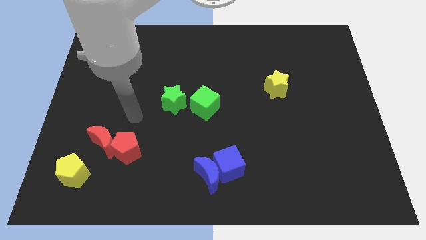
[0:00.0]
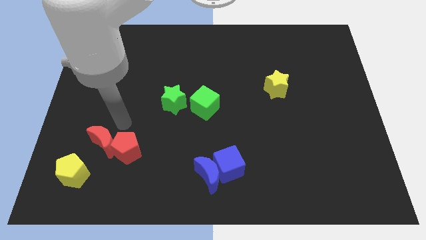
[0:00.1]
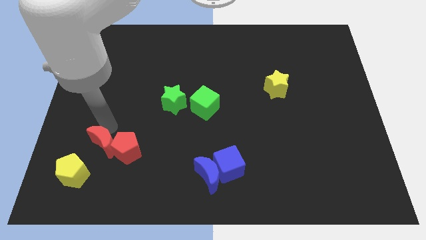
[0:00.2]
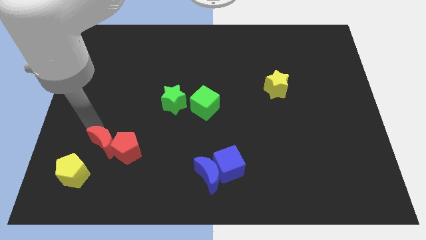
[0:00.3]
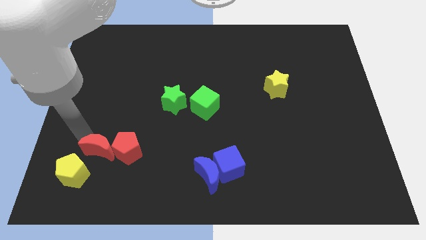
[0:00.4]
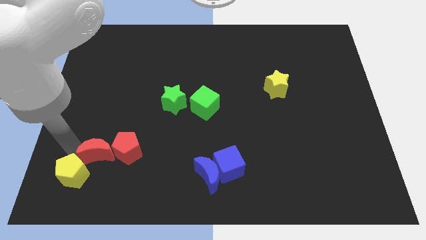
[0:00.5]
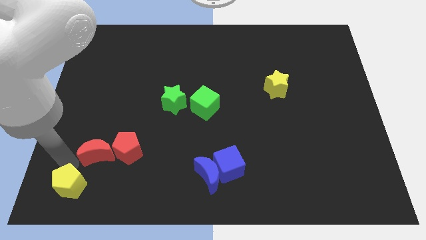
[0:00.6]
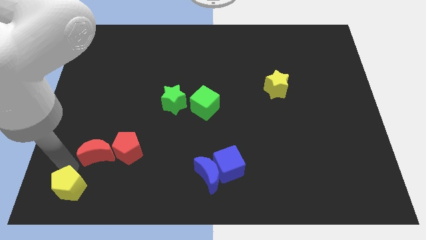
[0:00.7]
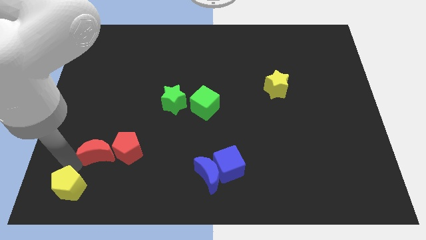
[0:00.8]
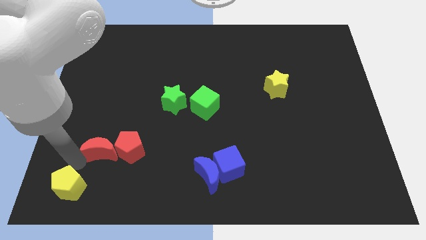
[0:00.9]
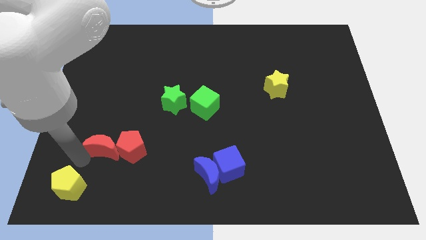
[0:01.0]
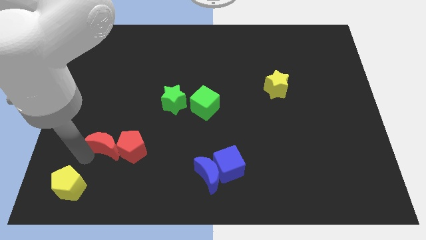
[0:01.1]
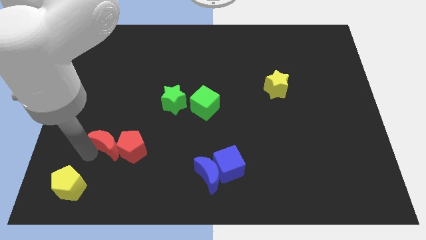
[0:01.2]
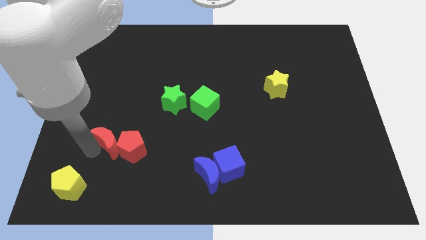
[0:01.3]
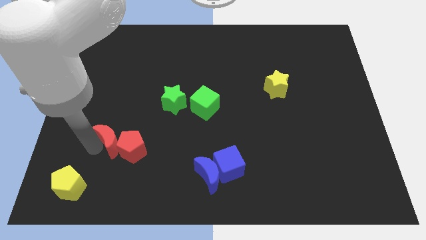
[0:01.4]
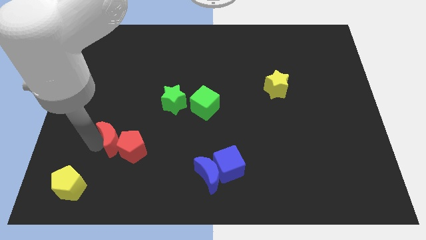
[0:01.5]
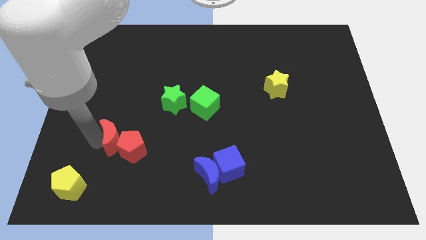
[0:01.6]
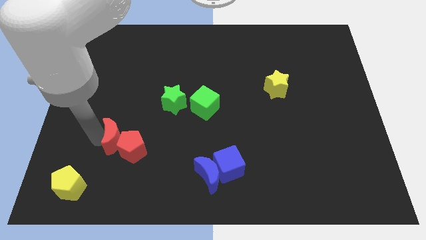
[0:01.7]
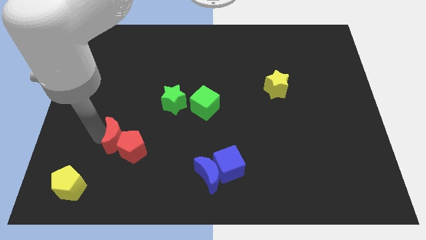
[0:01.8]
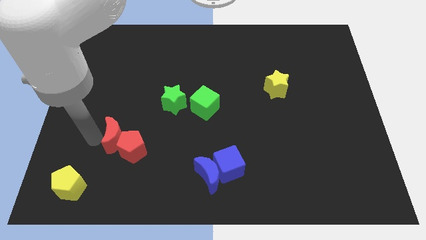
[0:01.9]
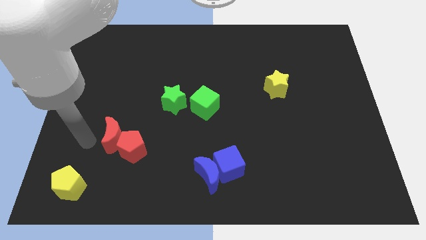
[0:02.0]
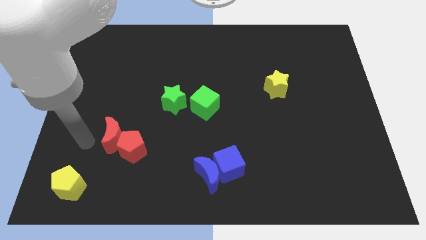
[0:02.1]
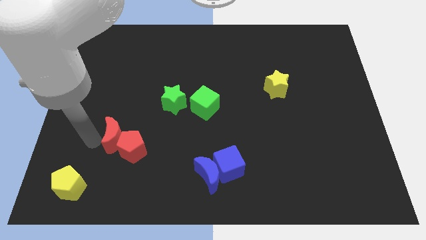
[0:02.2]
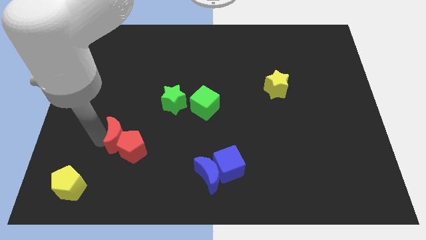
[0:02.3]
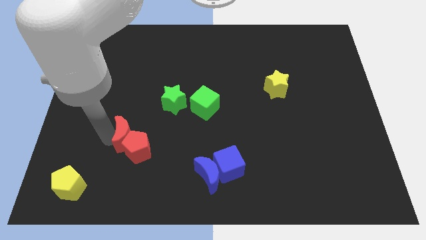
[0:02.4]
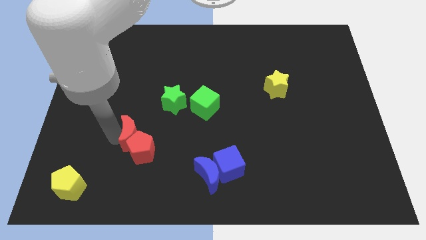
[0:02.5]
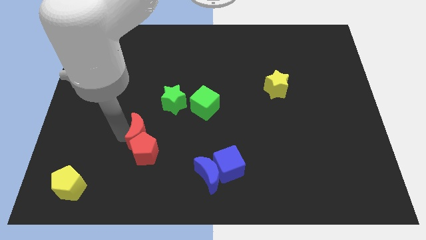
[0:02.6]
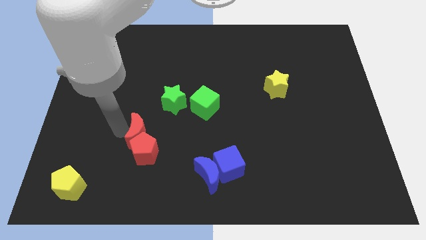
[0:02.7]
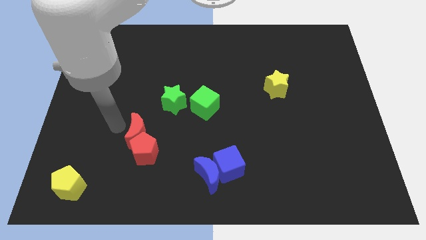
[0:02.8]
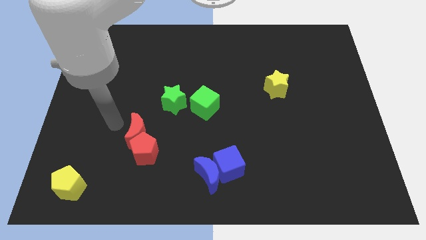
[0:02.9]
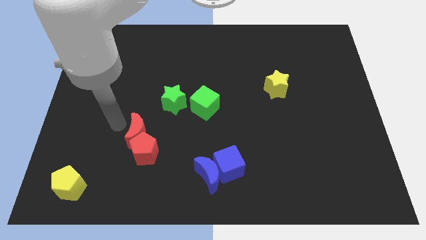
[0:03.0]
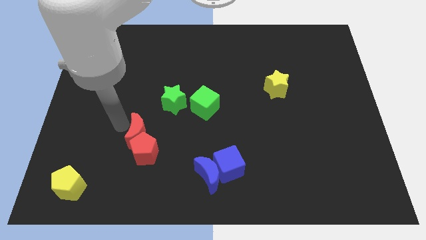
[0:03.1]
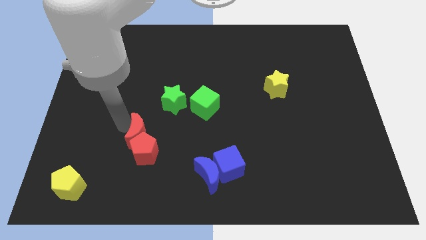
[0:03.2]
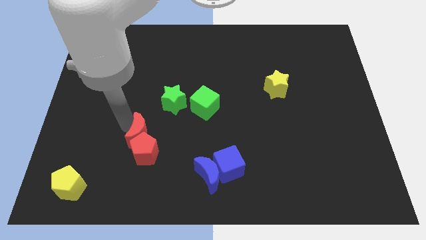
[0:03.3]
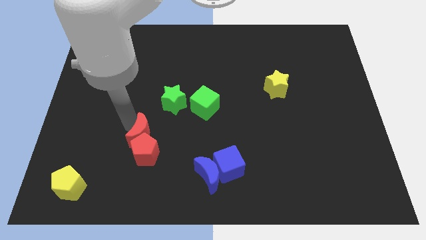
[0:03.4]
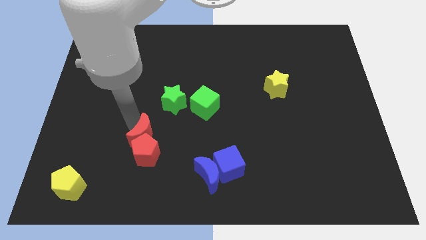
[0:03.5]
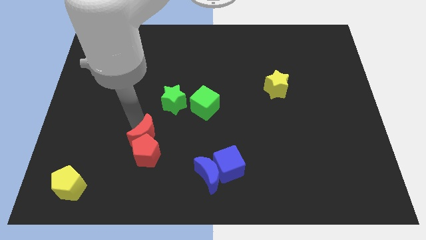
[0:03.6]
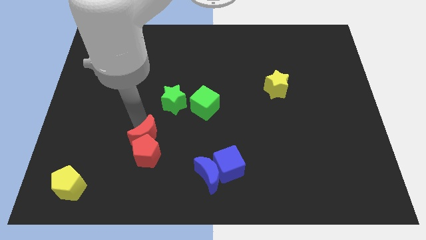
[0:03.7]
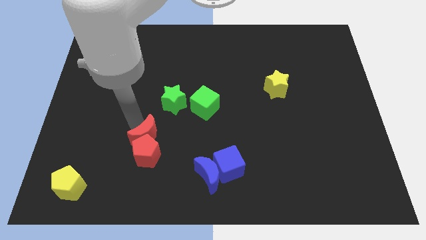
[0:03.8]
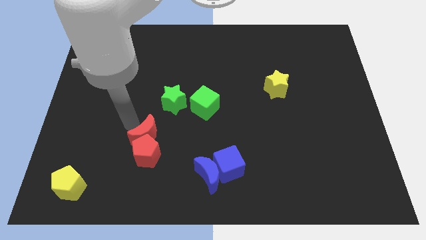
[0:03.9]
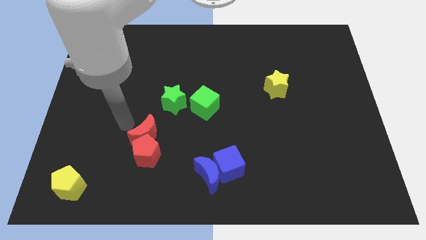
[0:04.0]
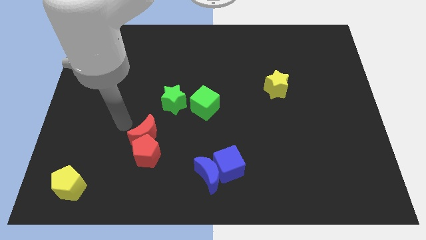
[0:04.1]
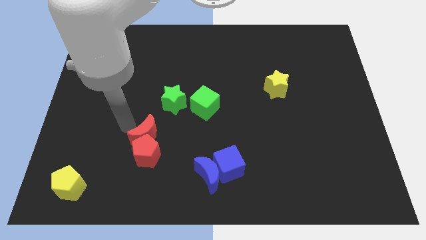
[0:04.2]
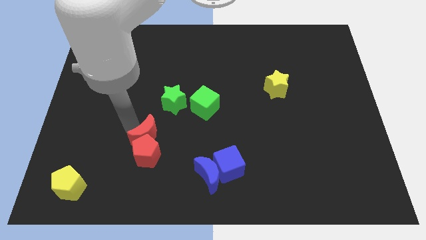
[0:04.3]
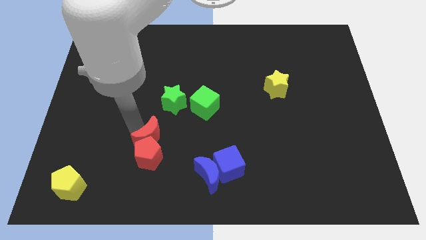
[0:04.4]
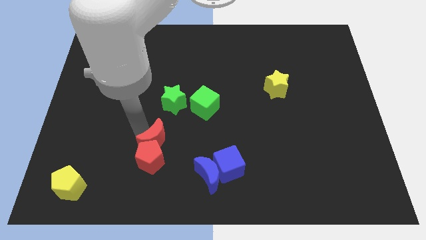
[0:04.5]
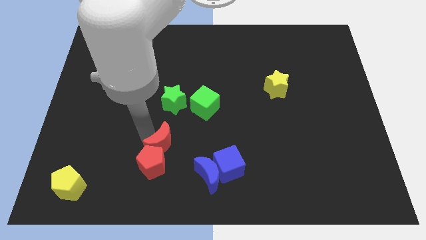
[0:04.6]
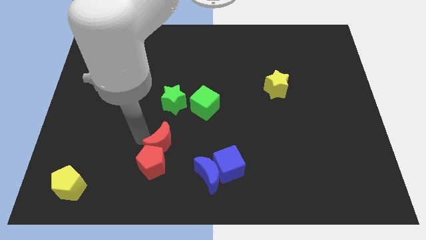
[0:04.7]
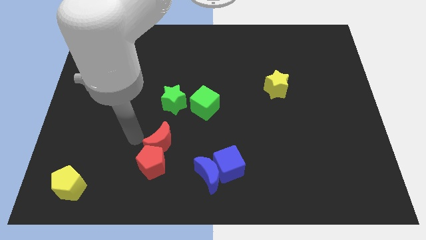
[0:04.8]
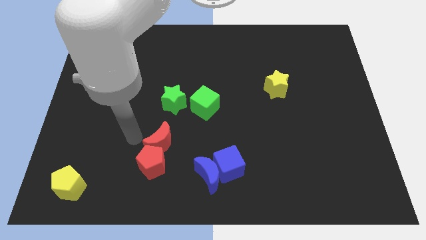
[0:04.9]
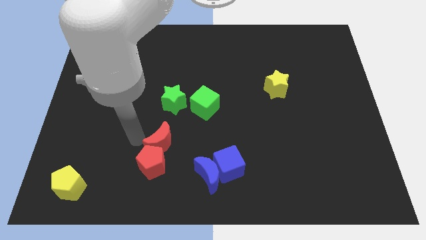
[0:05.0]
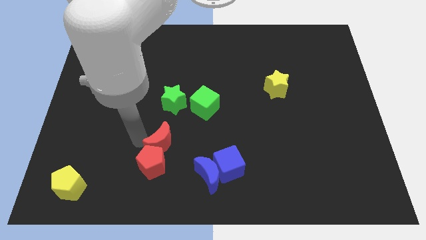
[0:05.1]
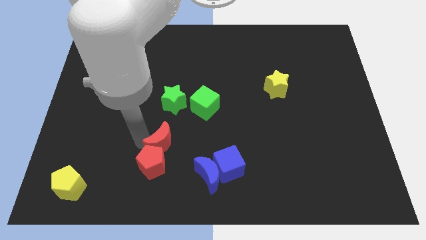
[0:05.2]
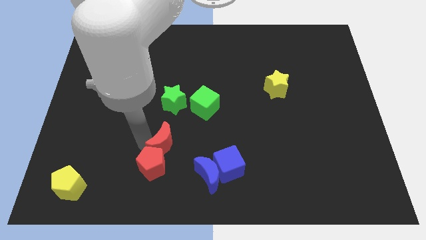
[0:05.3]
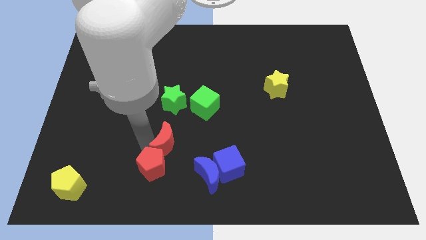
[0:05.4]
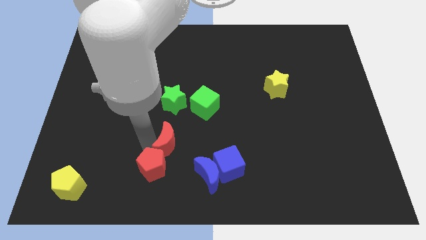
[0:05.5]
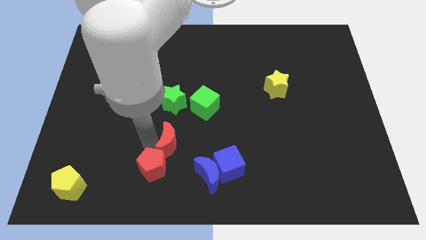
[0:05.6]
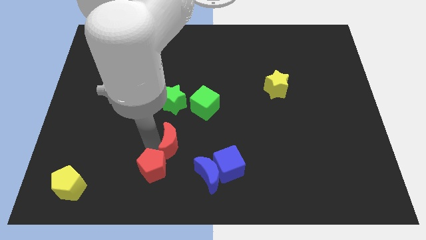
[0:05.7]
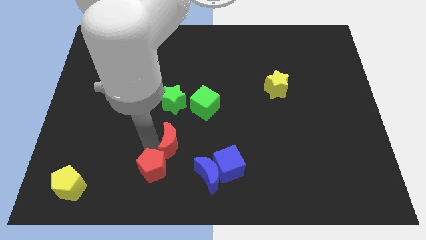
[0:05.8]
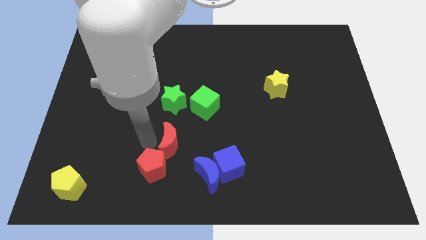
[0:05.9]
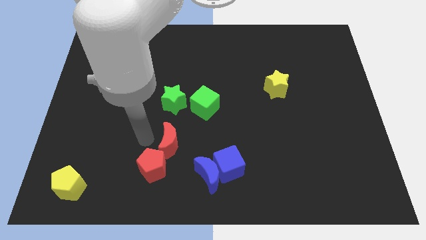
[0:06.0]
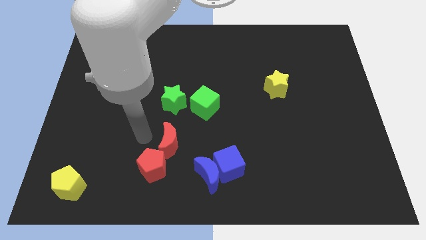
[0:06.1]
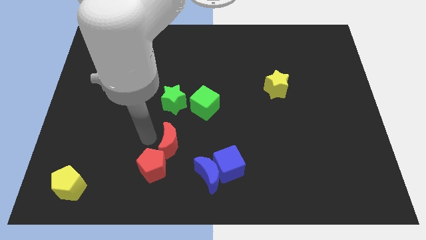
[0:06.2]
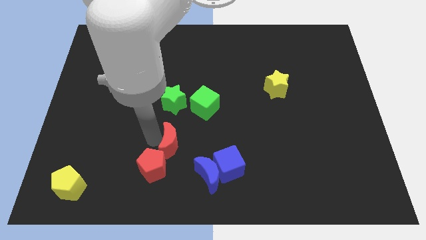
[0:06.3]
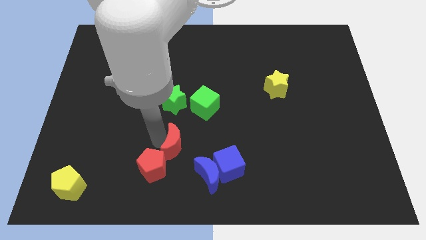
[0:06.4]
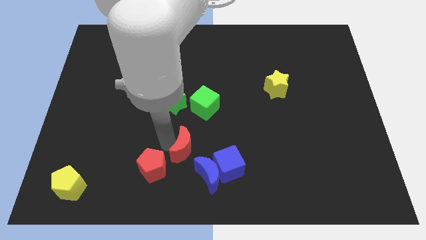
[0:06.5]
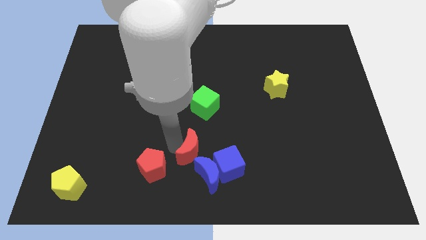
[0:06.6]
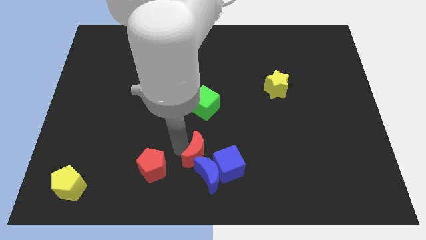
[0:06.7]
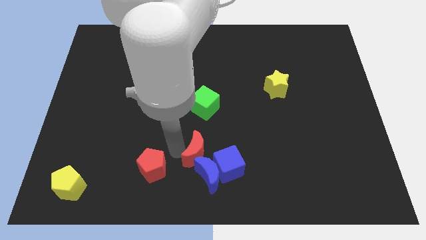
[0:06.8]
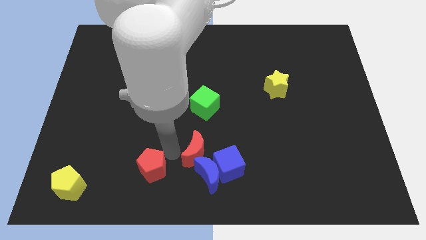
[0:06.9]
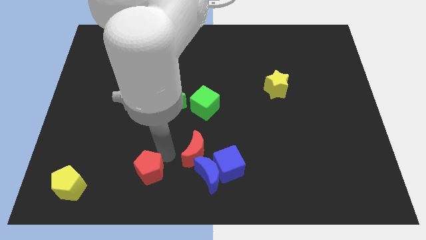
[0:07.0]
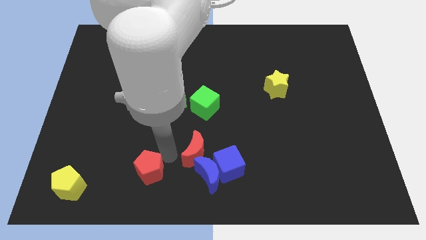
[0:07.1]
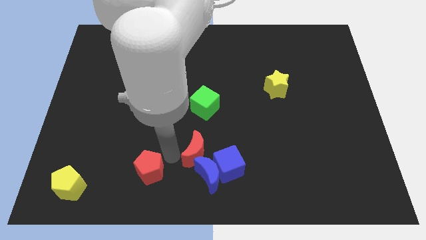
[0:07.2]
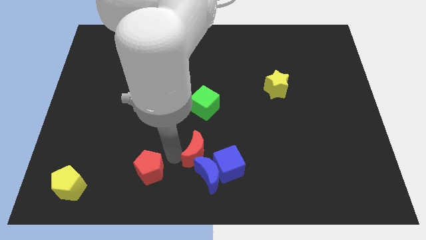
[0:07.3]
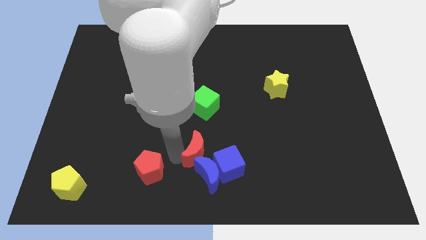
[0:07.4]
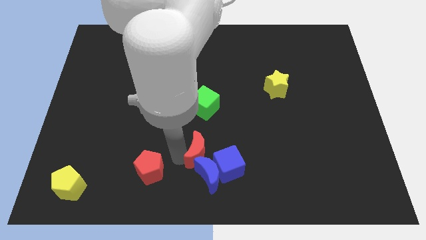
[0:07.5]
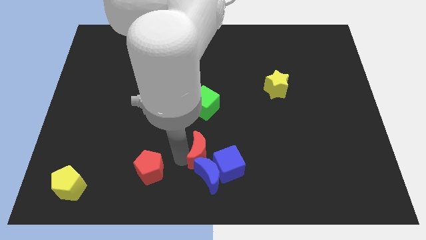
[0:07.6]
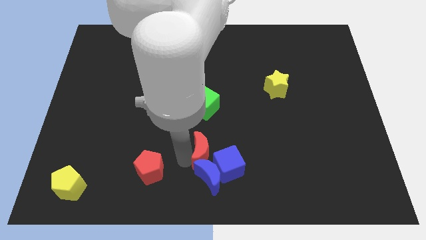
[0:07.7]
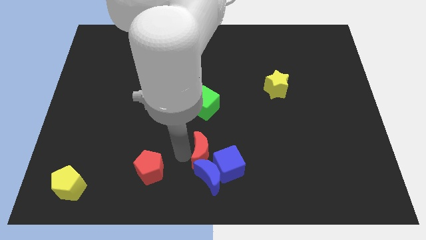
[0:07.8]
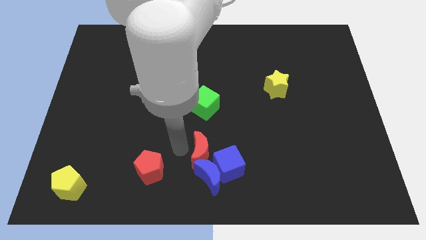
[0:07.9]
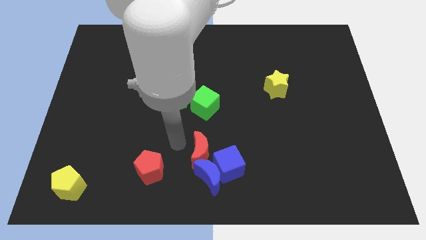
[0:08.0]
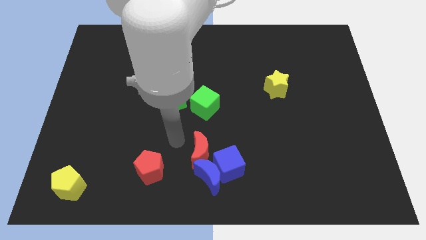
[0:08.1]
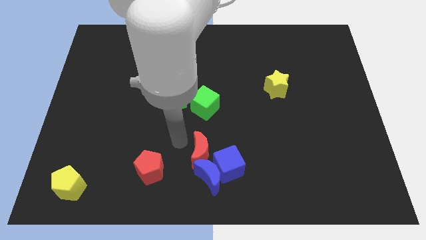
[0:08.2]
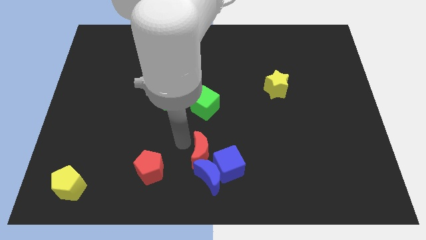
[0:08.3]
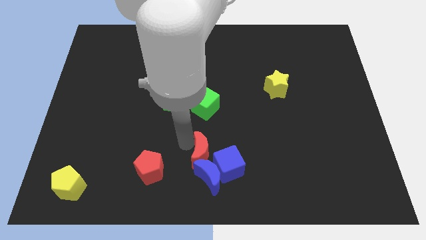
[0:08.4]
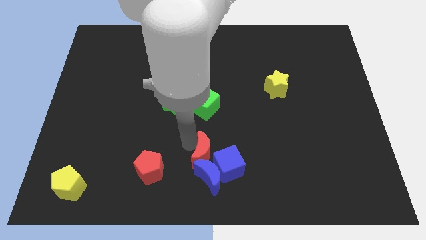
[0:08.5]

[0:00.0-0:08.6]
move the red moon next to the blue cube
